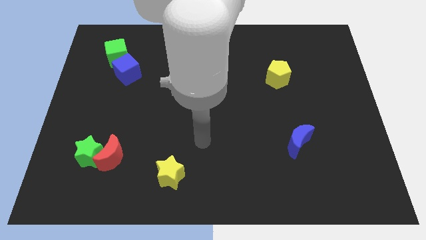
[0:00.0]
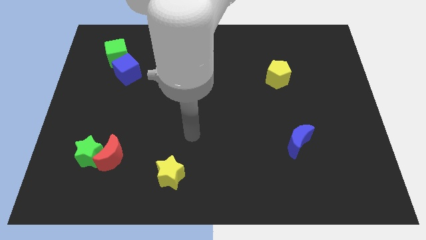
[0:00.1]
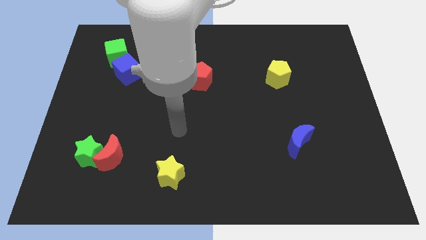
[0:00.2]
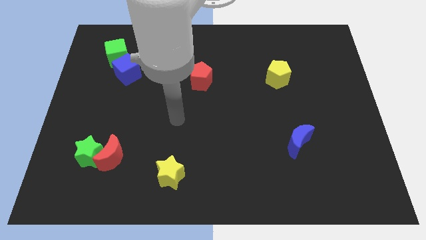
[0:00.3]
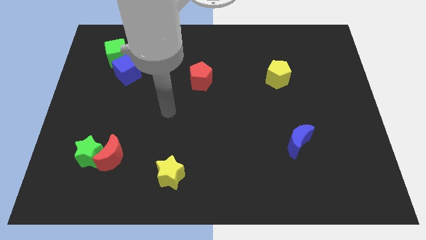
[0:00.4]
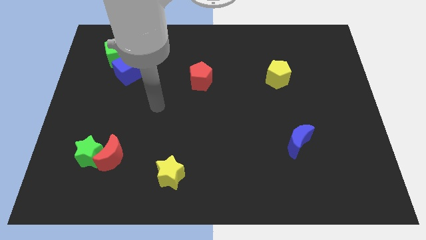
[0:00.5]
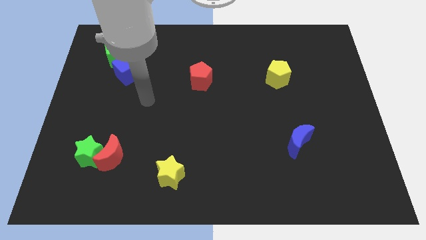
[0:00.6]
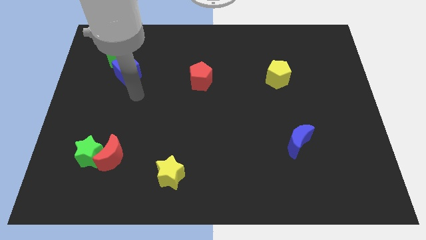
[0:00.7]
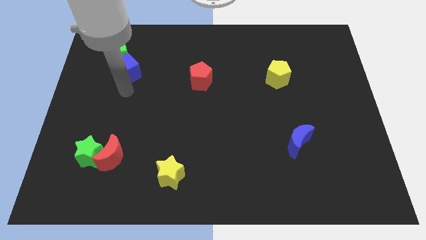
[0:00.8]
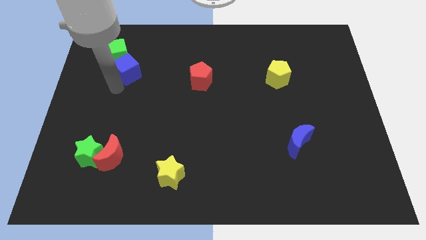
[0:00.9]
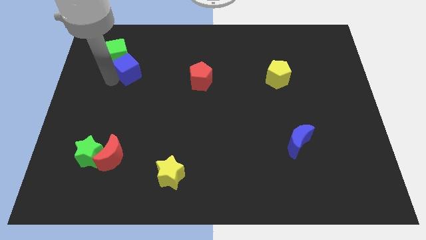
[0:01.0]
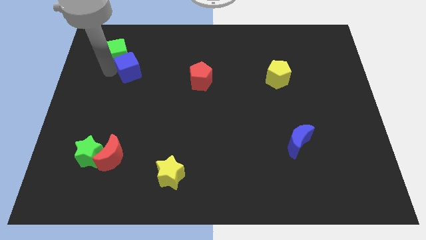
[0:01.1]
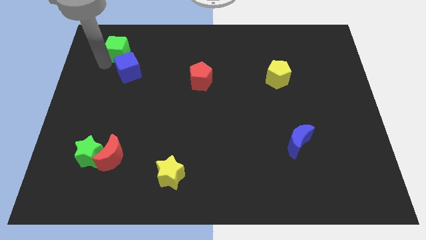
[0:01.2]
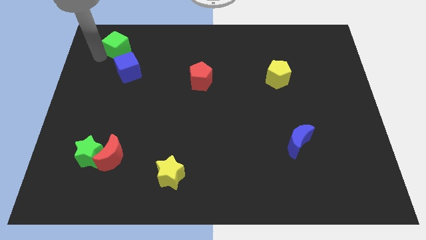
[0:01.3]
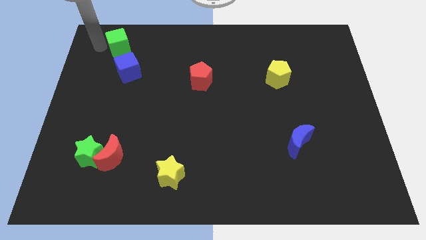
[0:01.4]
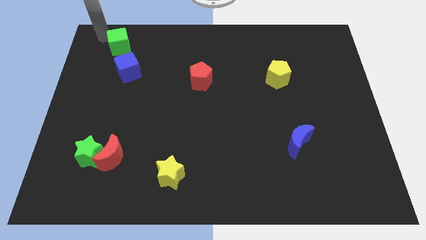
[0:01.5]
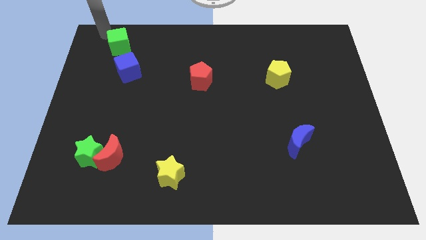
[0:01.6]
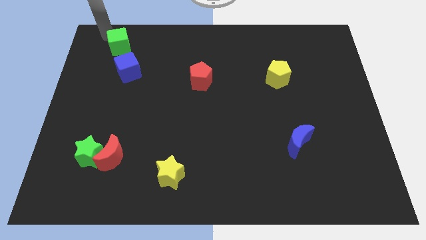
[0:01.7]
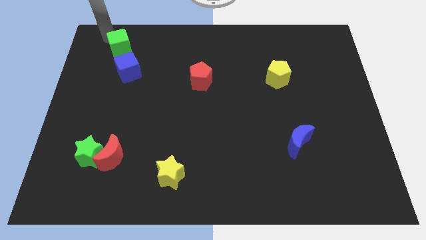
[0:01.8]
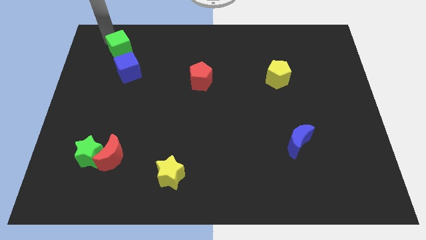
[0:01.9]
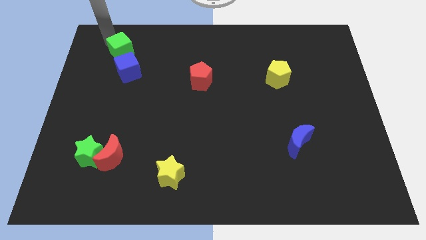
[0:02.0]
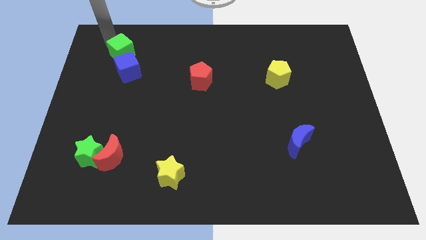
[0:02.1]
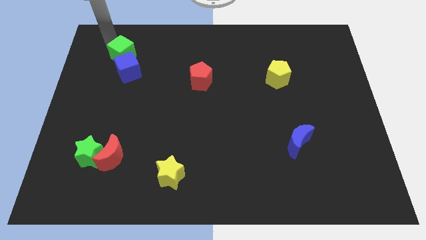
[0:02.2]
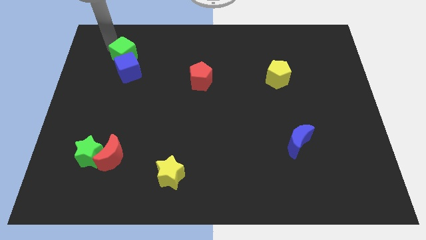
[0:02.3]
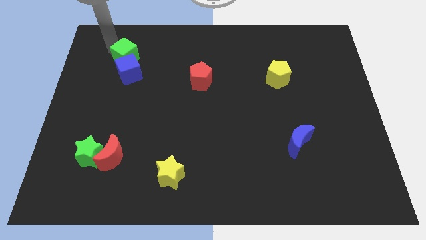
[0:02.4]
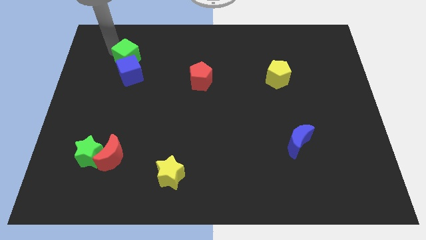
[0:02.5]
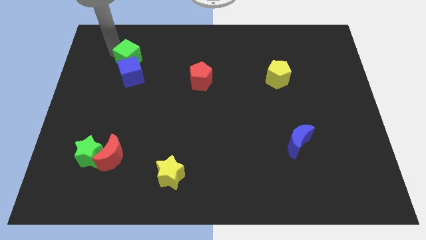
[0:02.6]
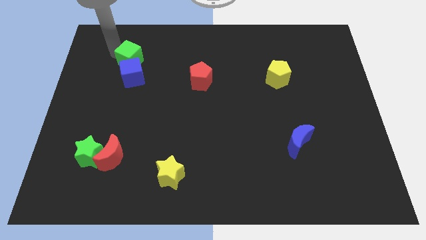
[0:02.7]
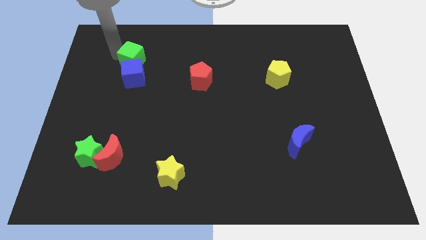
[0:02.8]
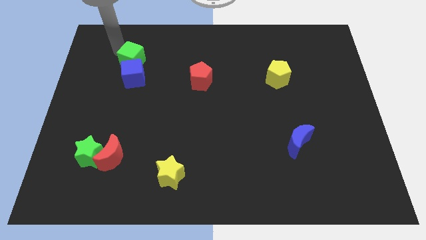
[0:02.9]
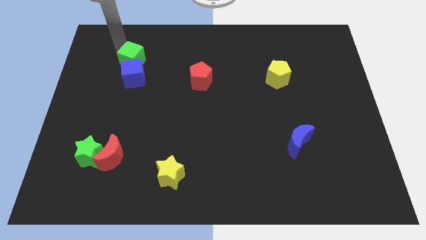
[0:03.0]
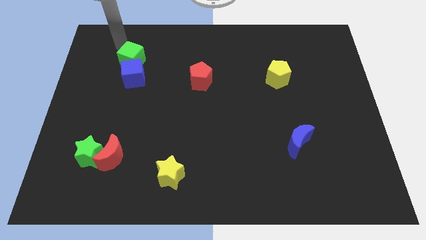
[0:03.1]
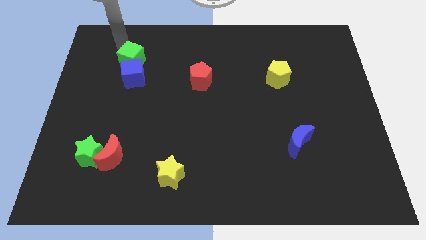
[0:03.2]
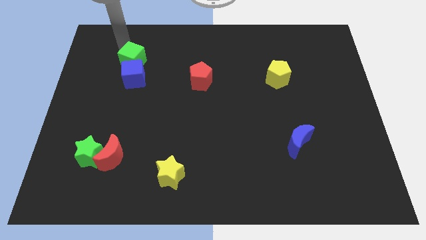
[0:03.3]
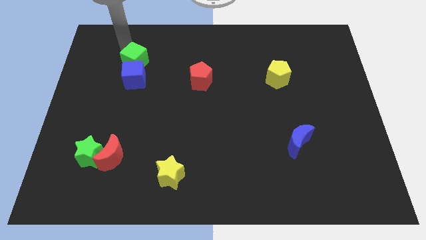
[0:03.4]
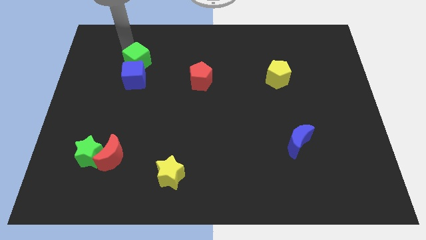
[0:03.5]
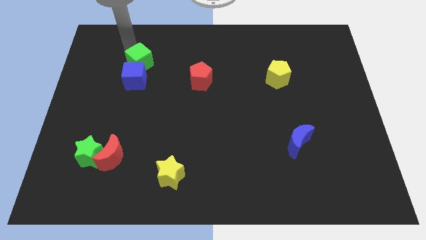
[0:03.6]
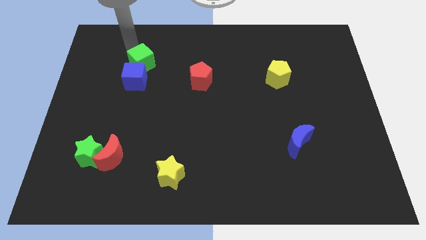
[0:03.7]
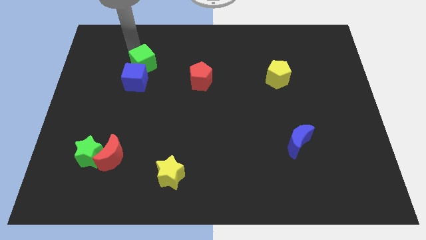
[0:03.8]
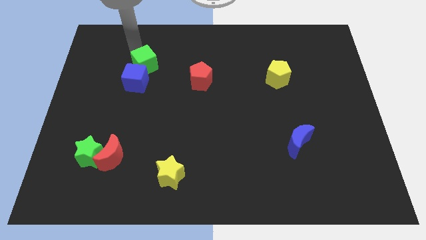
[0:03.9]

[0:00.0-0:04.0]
slightly move the green cube diagonally downwards and right

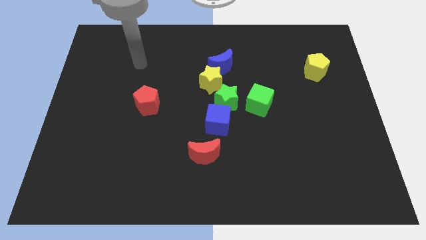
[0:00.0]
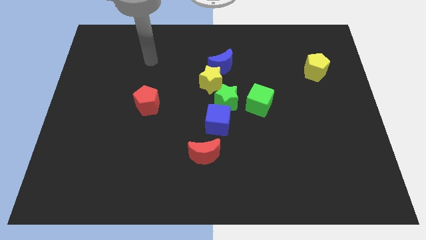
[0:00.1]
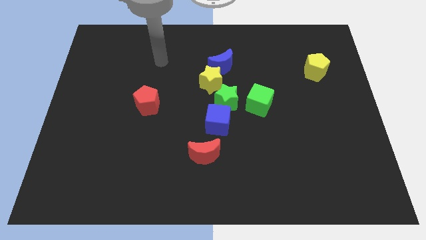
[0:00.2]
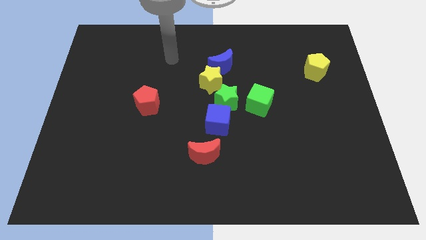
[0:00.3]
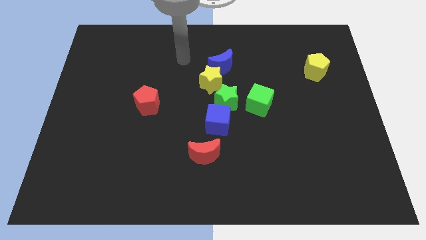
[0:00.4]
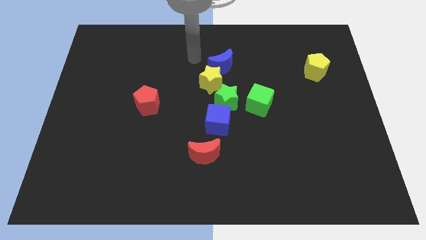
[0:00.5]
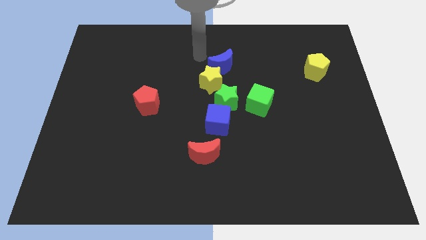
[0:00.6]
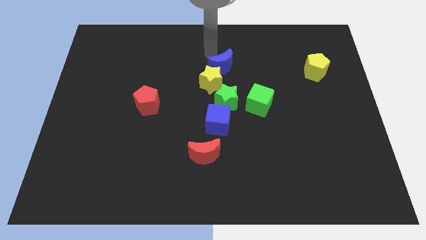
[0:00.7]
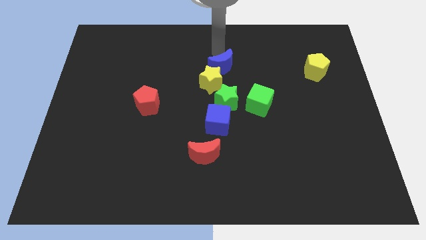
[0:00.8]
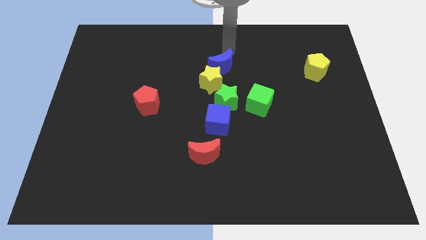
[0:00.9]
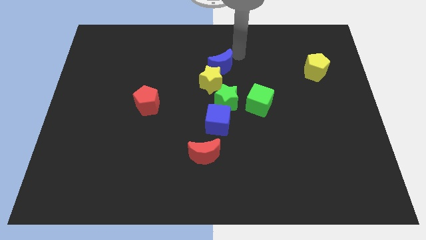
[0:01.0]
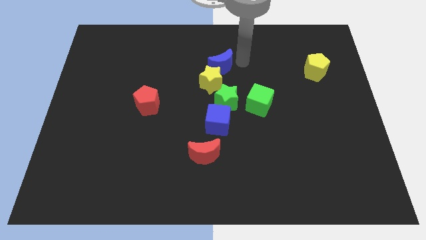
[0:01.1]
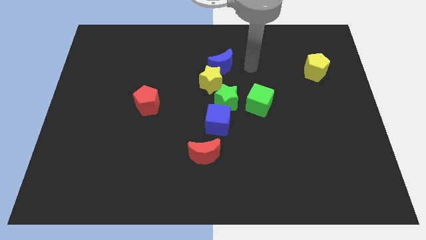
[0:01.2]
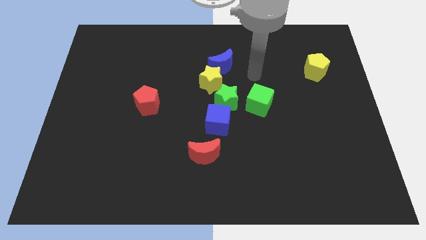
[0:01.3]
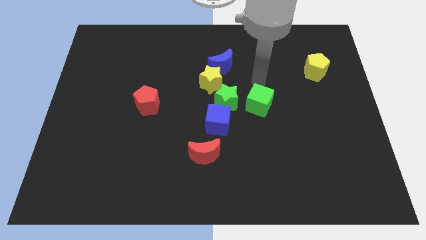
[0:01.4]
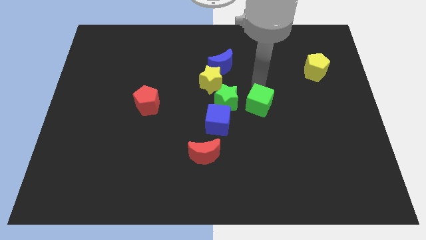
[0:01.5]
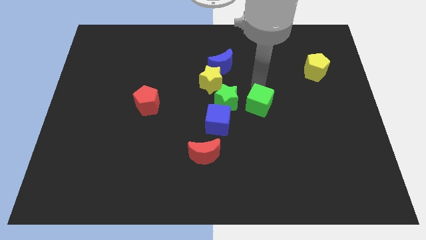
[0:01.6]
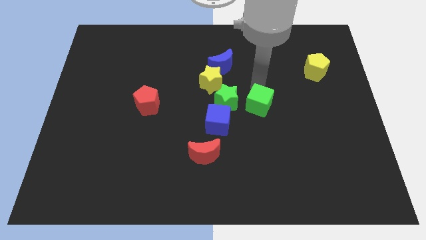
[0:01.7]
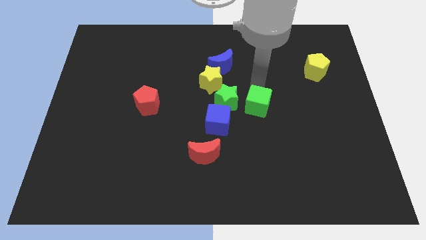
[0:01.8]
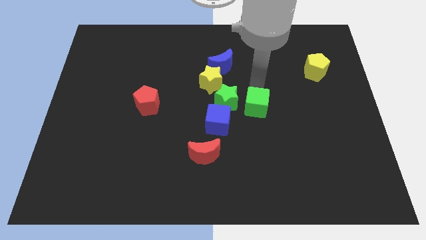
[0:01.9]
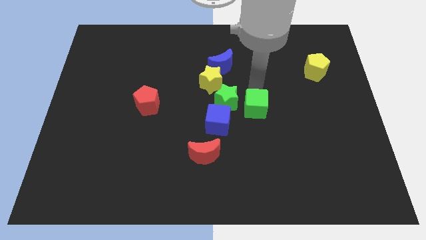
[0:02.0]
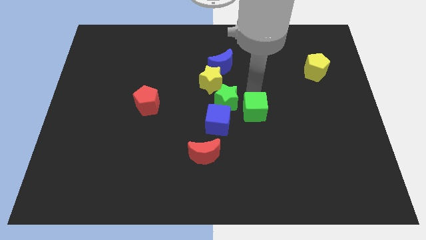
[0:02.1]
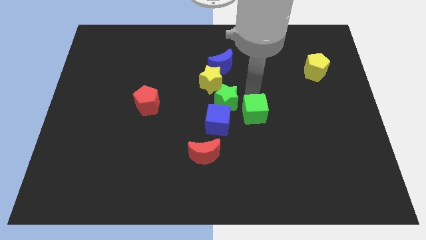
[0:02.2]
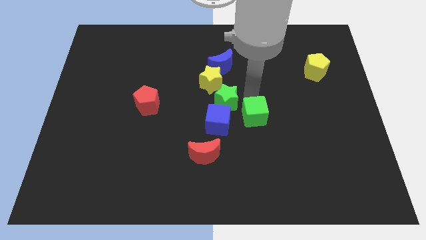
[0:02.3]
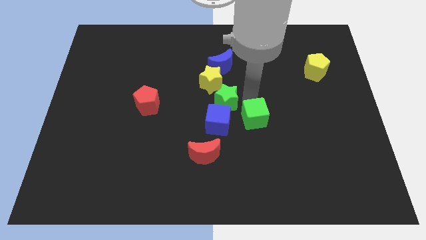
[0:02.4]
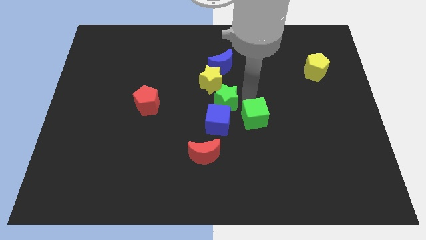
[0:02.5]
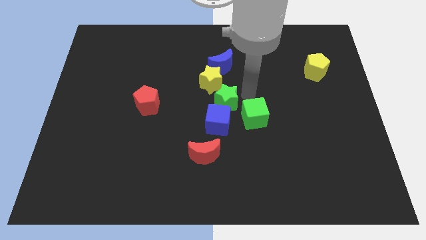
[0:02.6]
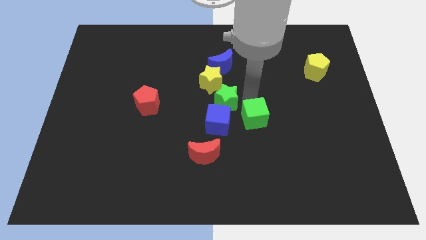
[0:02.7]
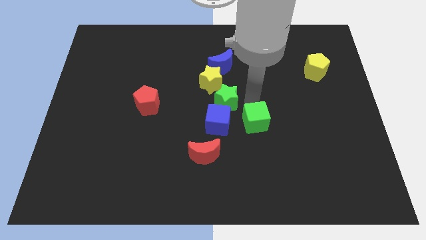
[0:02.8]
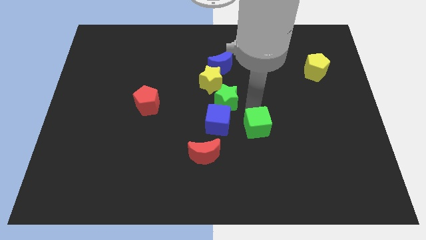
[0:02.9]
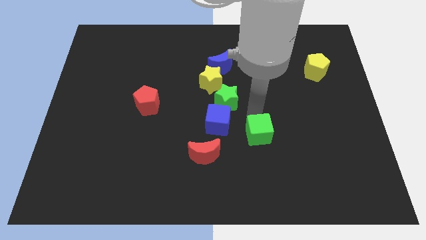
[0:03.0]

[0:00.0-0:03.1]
slide the green cube slightly downwards

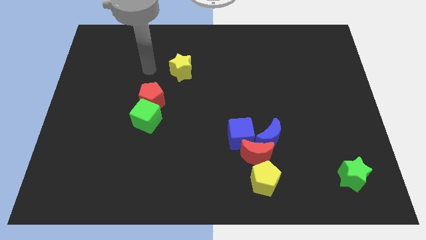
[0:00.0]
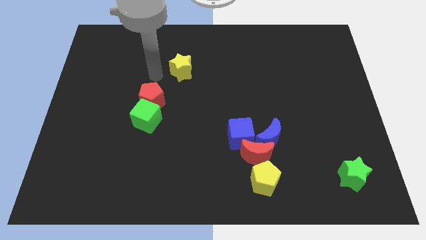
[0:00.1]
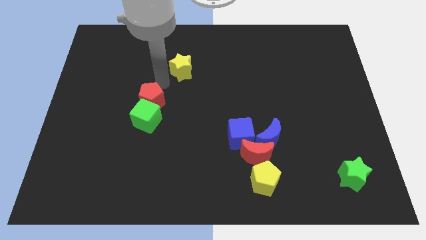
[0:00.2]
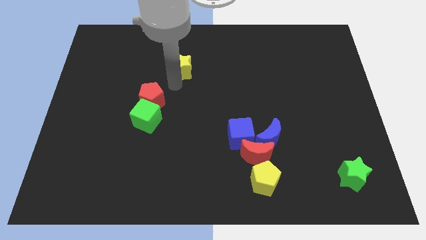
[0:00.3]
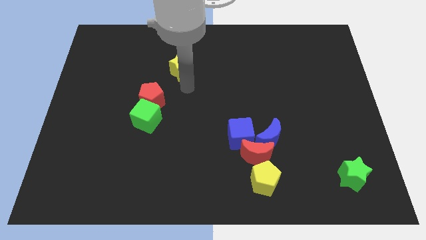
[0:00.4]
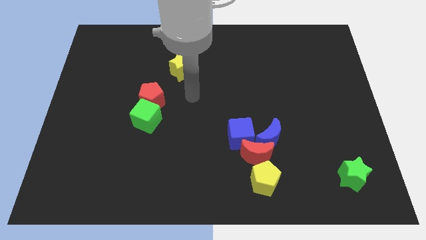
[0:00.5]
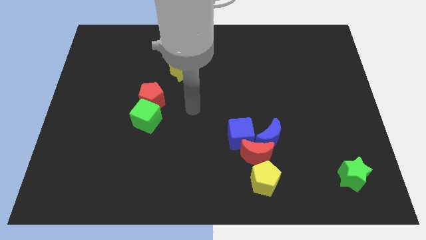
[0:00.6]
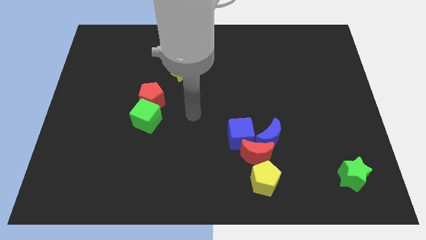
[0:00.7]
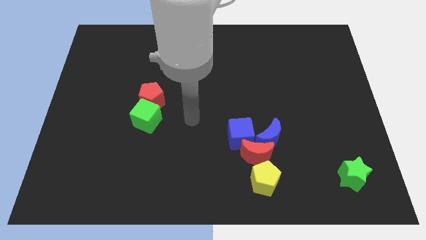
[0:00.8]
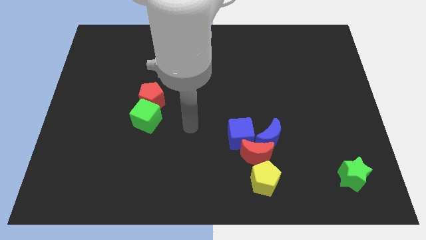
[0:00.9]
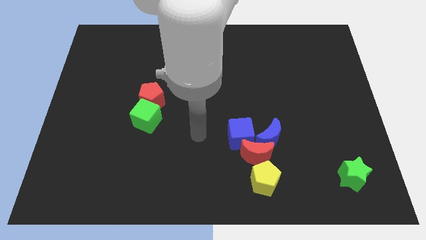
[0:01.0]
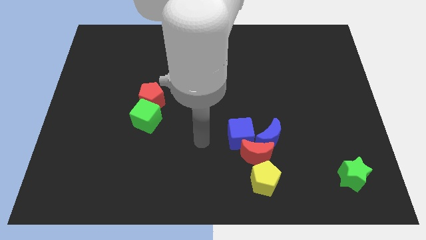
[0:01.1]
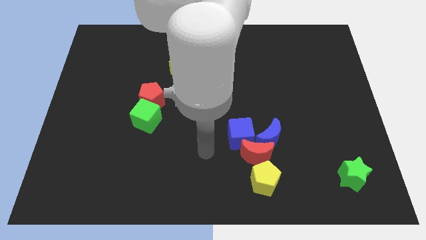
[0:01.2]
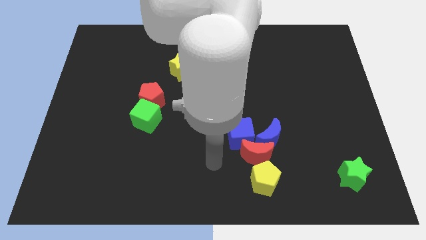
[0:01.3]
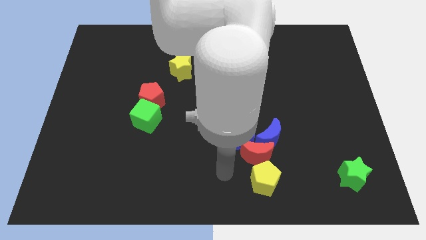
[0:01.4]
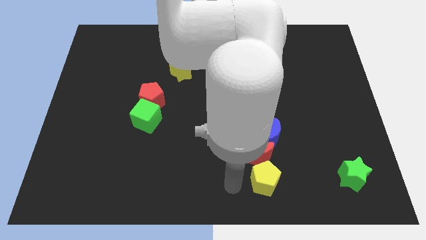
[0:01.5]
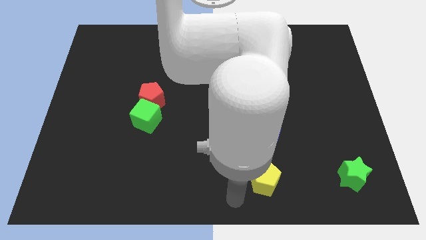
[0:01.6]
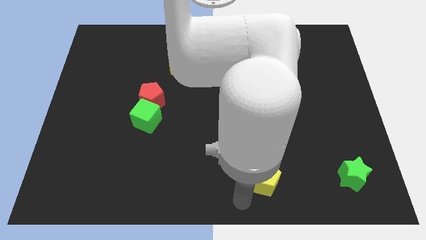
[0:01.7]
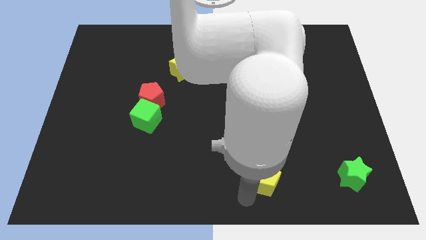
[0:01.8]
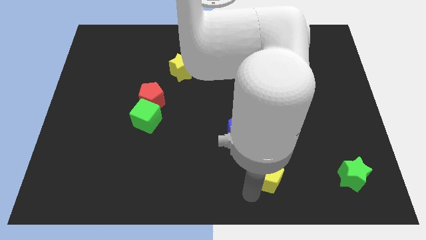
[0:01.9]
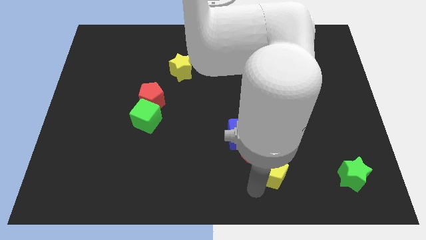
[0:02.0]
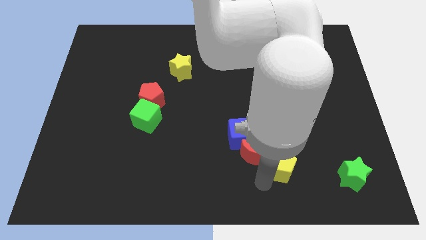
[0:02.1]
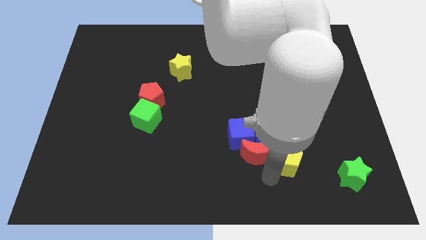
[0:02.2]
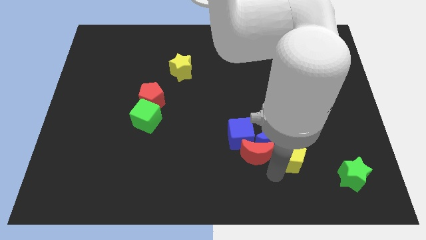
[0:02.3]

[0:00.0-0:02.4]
push the yellow pentagon slightly upwards and to the right
